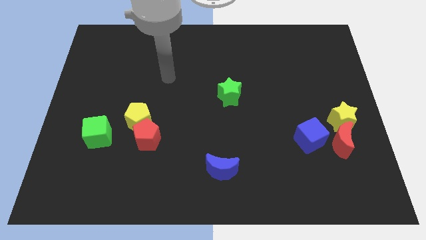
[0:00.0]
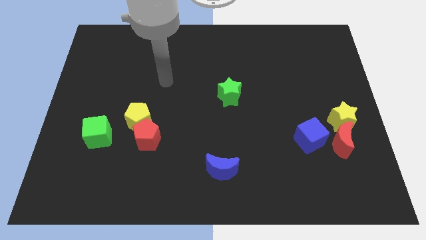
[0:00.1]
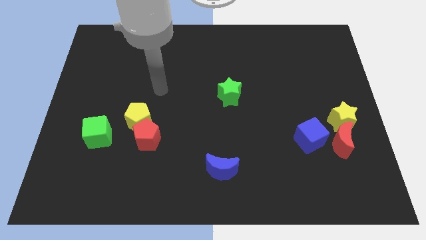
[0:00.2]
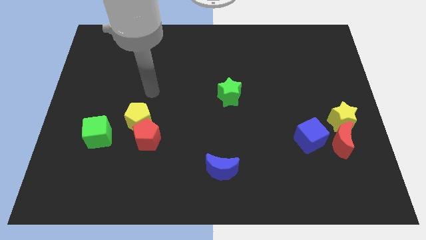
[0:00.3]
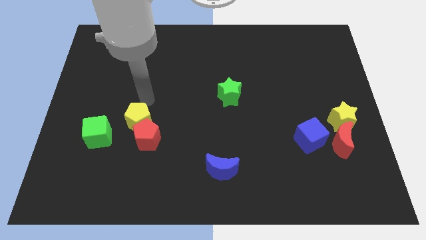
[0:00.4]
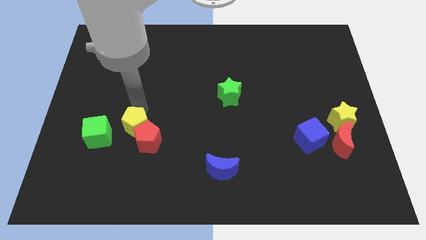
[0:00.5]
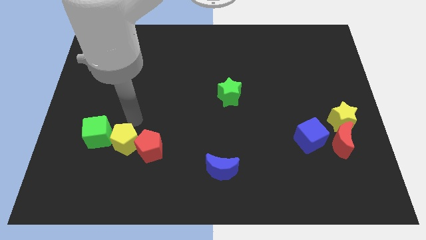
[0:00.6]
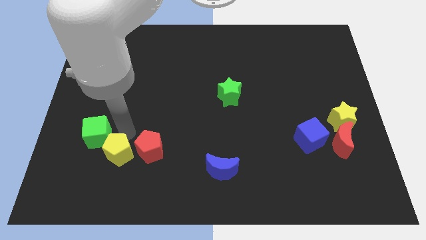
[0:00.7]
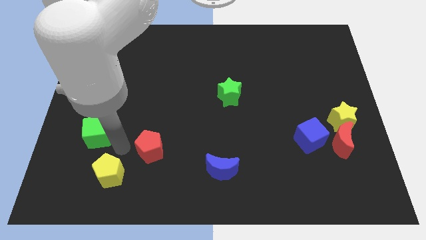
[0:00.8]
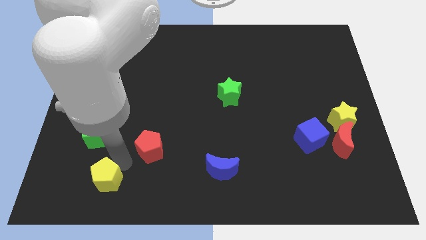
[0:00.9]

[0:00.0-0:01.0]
separate the red pentagon from the yellow pentagon

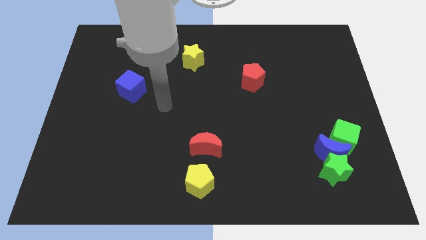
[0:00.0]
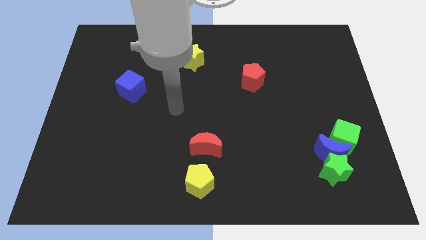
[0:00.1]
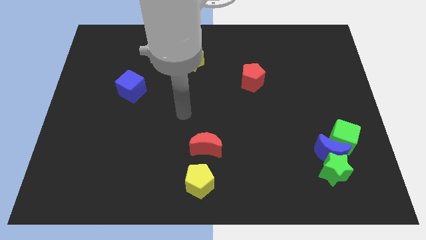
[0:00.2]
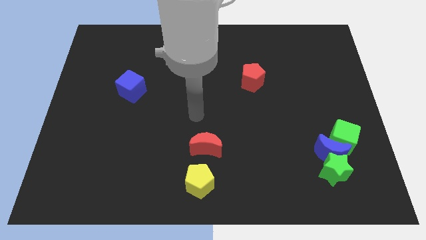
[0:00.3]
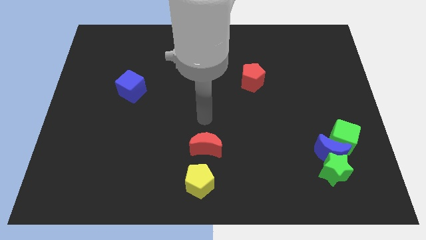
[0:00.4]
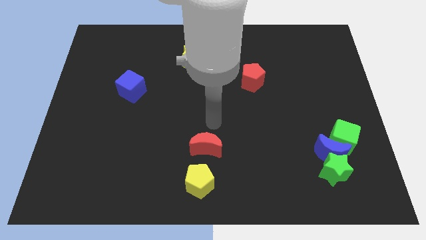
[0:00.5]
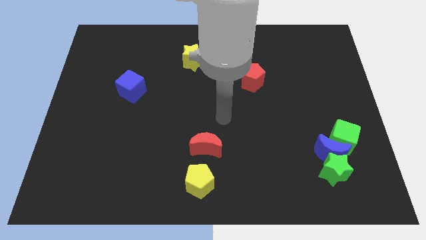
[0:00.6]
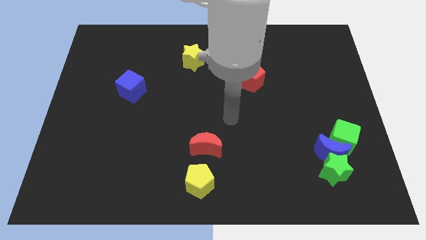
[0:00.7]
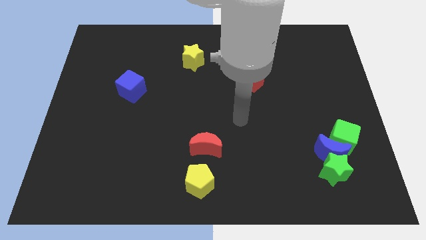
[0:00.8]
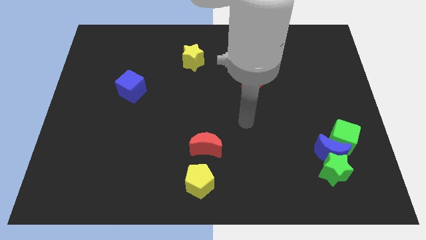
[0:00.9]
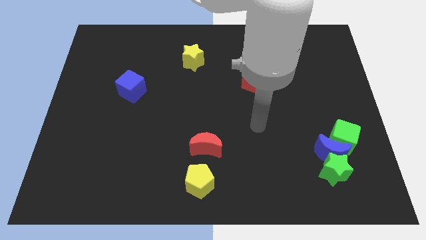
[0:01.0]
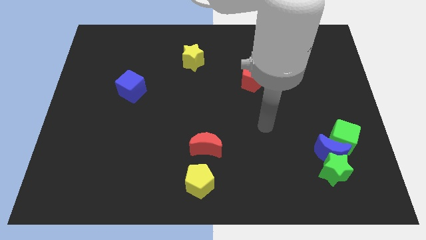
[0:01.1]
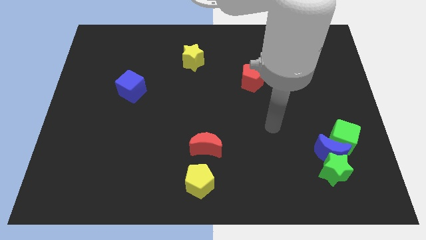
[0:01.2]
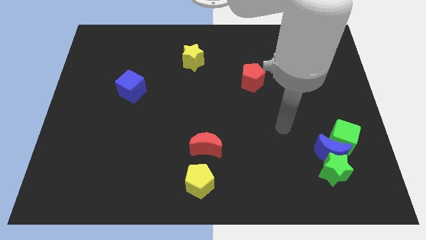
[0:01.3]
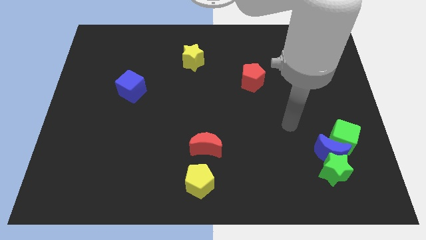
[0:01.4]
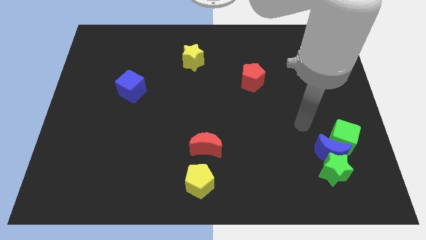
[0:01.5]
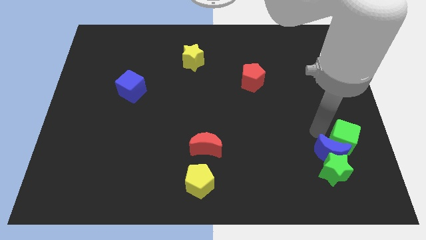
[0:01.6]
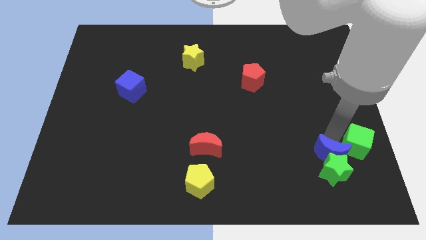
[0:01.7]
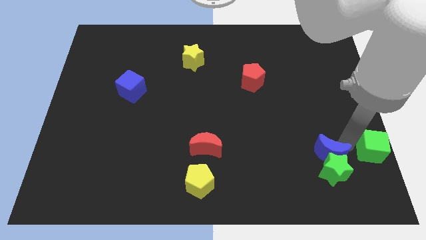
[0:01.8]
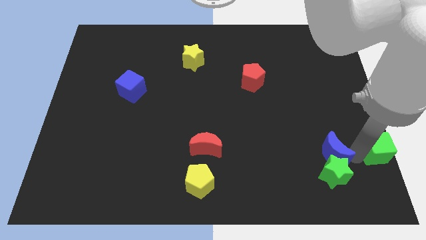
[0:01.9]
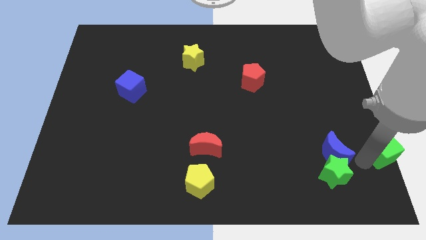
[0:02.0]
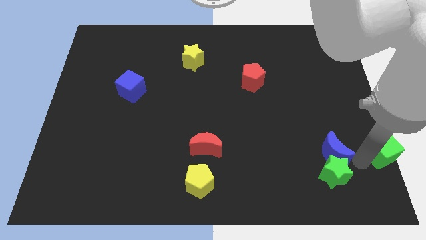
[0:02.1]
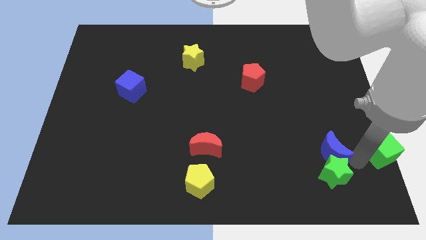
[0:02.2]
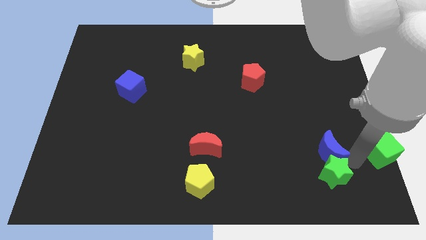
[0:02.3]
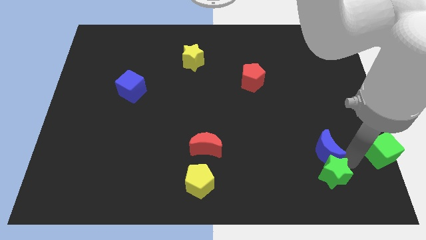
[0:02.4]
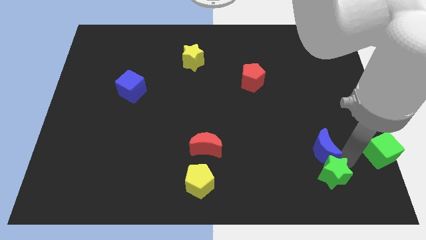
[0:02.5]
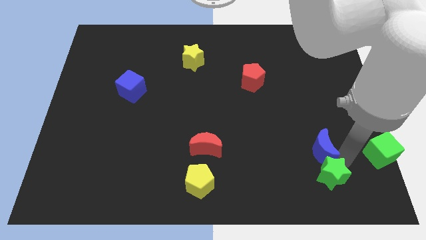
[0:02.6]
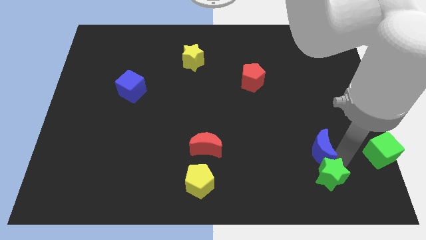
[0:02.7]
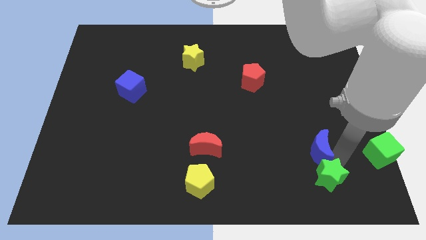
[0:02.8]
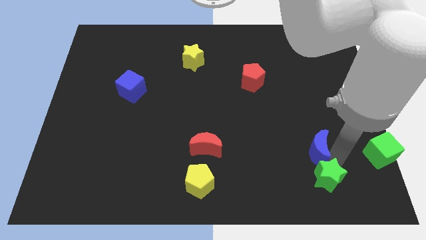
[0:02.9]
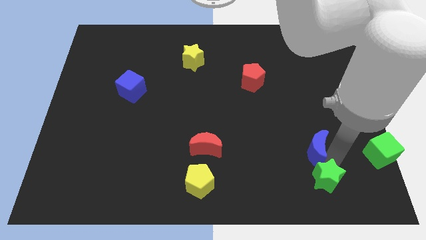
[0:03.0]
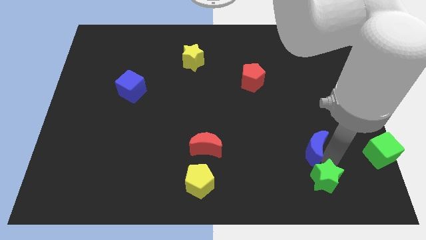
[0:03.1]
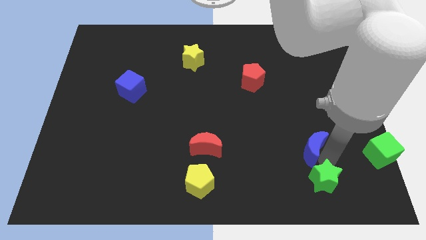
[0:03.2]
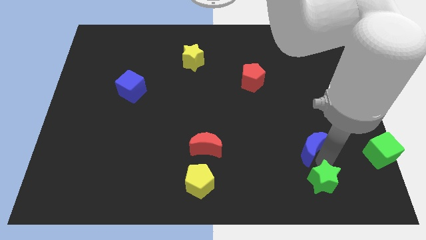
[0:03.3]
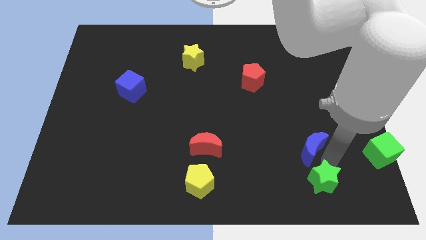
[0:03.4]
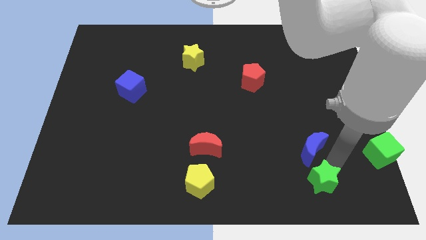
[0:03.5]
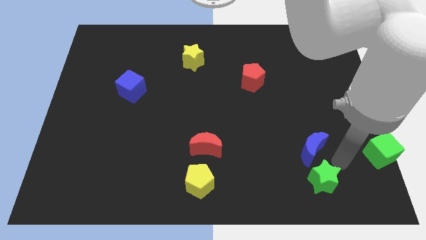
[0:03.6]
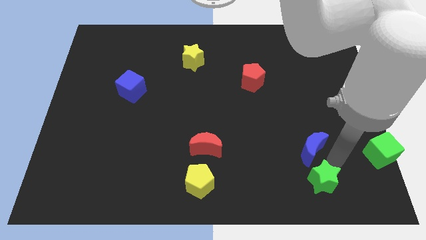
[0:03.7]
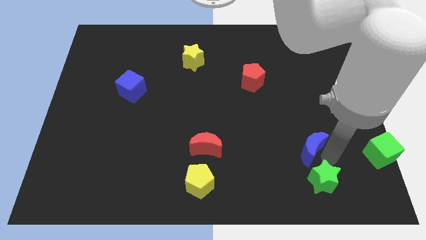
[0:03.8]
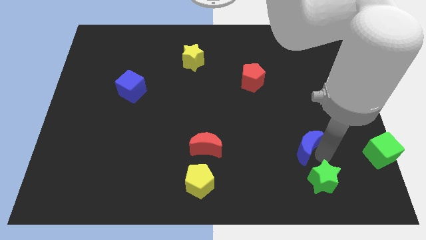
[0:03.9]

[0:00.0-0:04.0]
separate the blue moon from the green star and green cube

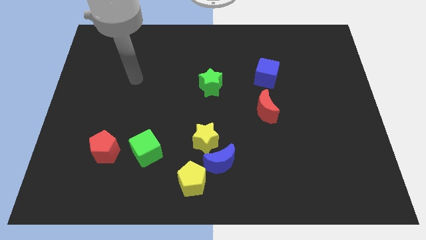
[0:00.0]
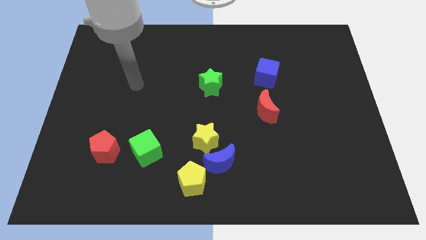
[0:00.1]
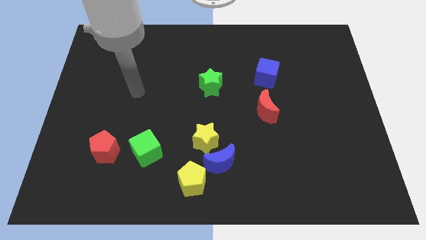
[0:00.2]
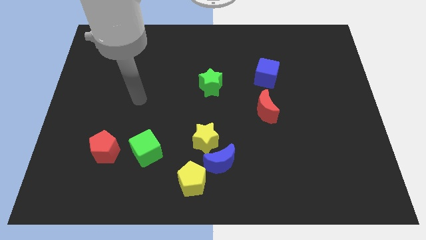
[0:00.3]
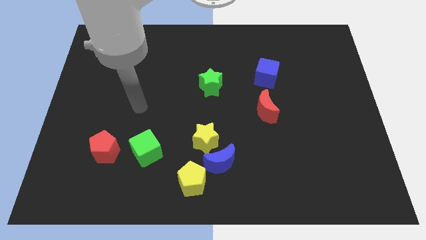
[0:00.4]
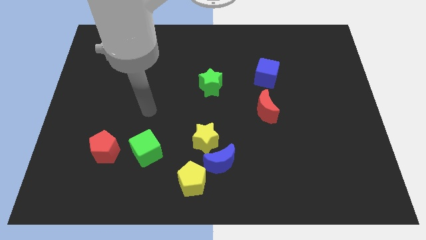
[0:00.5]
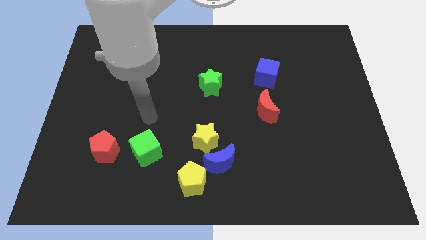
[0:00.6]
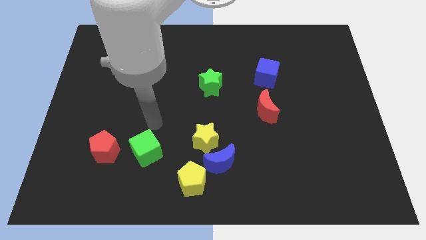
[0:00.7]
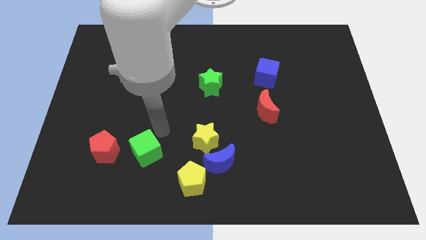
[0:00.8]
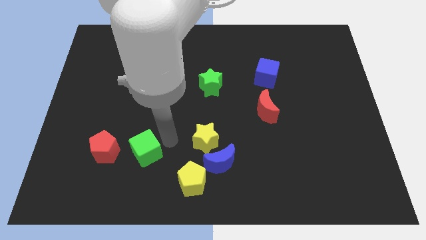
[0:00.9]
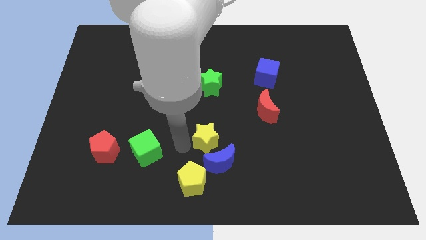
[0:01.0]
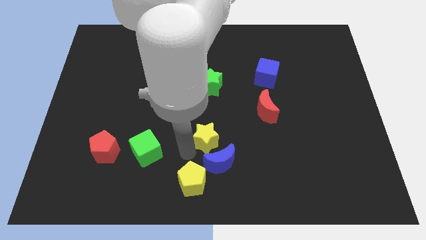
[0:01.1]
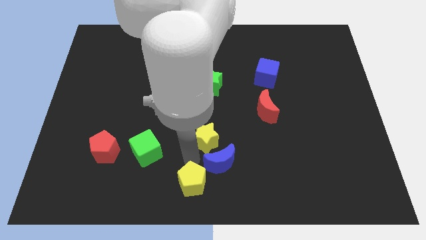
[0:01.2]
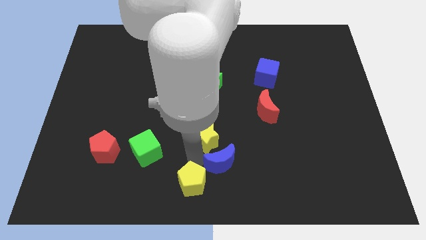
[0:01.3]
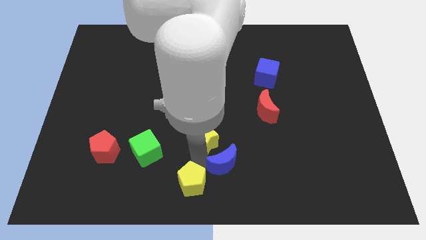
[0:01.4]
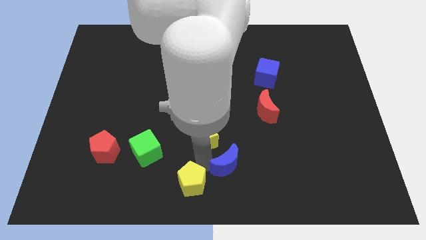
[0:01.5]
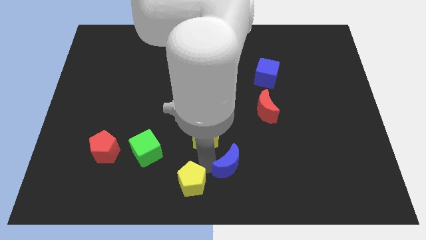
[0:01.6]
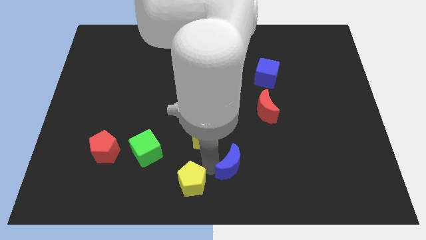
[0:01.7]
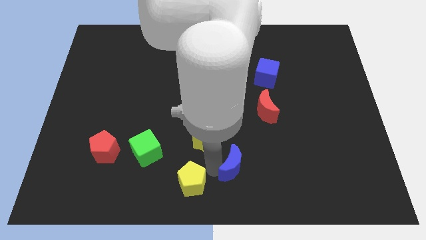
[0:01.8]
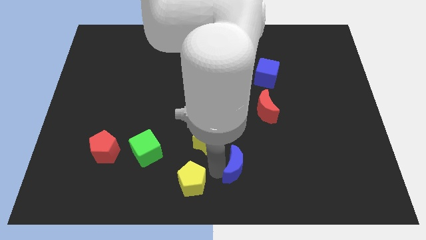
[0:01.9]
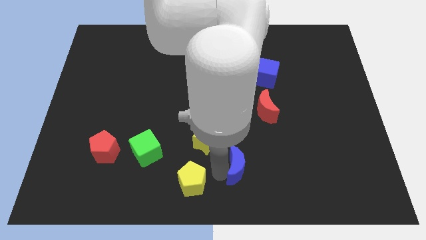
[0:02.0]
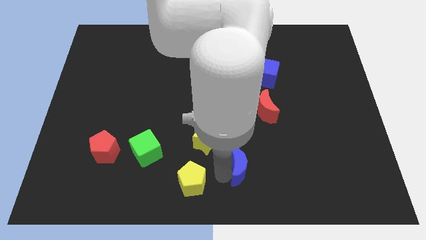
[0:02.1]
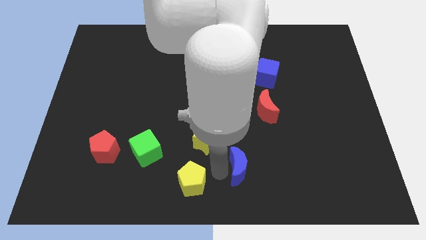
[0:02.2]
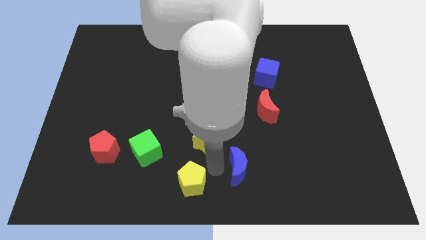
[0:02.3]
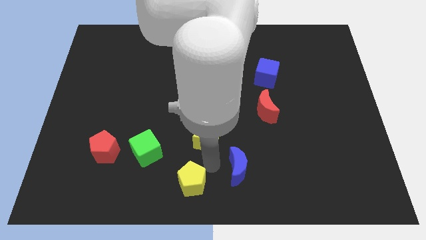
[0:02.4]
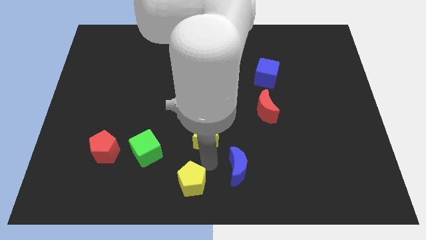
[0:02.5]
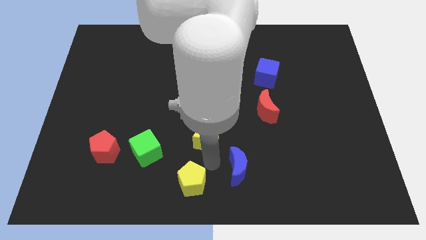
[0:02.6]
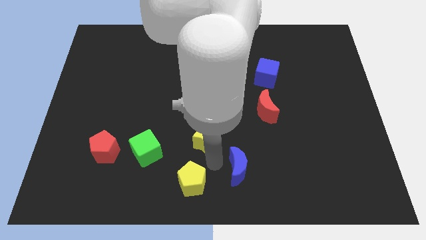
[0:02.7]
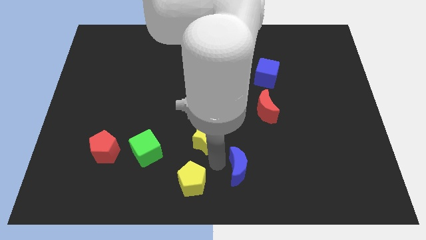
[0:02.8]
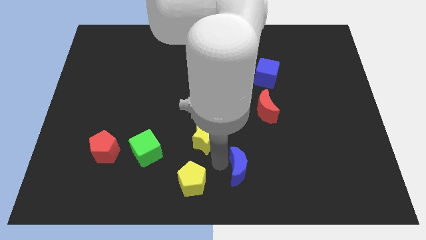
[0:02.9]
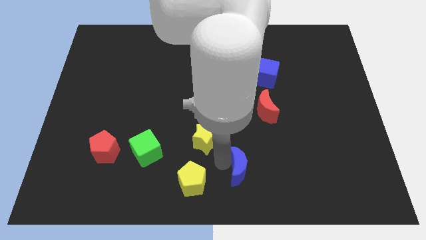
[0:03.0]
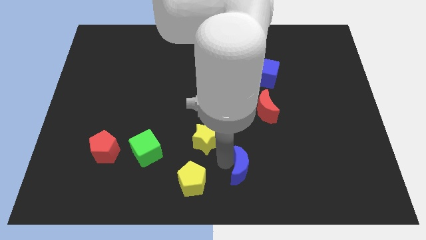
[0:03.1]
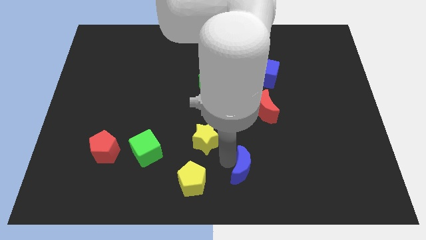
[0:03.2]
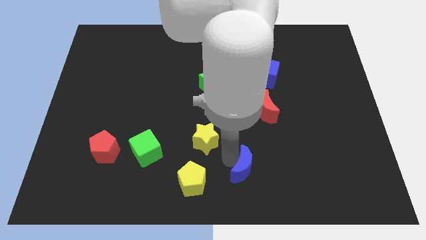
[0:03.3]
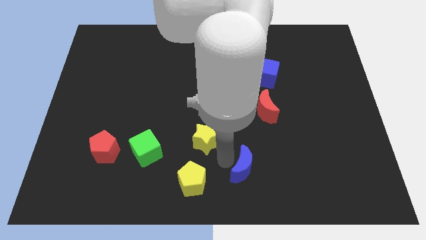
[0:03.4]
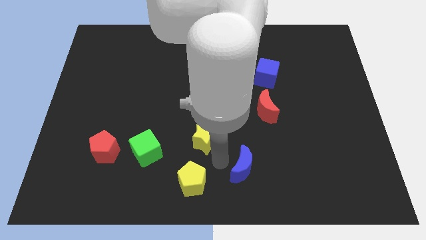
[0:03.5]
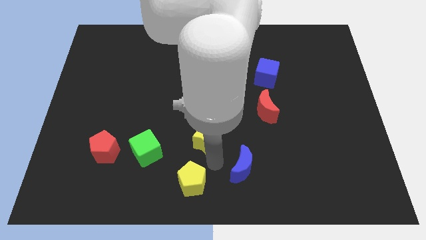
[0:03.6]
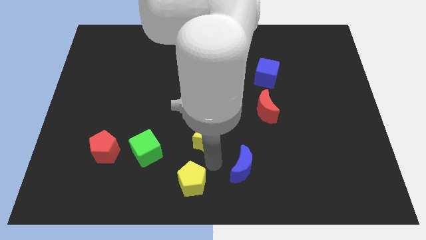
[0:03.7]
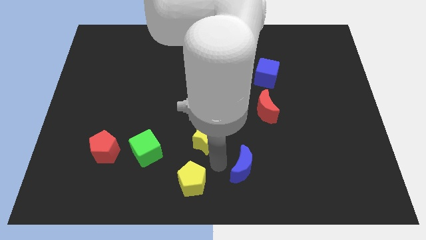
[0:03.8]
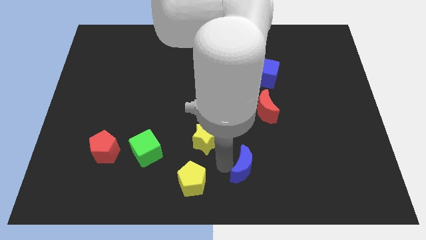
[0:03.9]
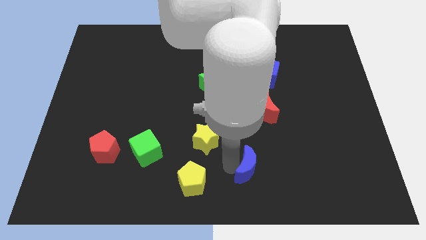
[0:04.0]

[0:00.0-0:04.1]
move the blue moon away from the yellow star and yellow pentagon

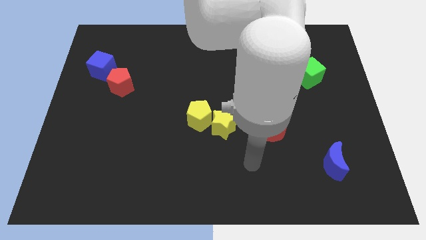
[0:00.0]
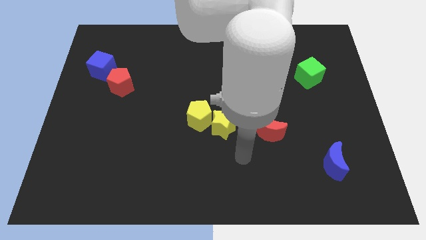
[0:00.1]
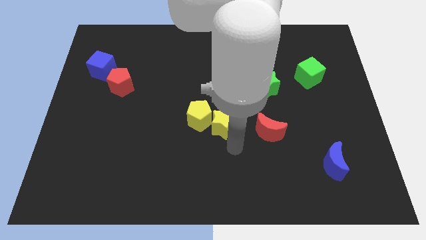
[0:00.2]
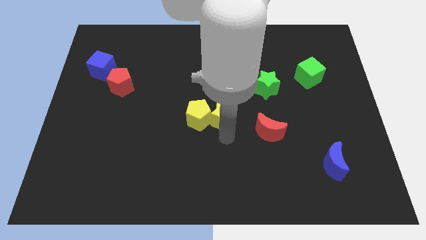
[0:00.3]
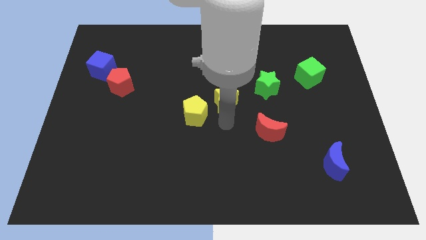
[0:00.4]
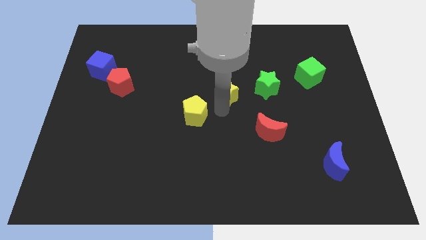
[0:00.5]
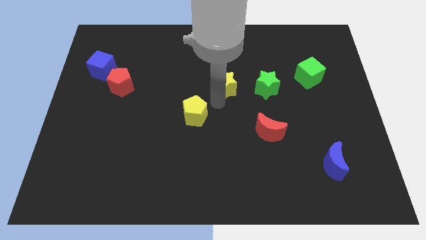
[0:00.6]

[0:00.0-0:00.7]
move the yellow pentagon away from the yellow star
